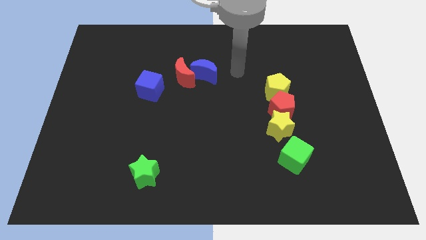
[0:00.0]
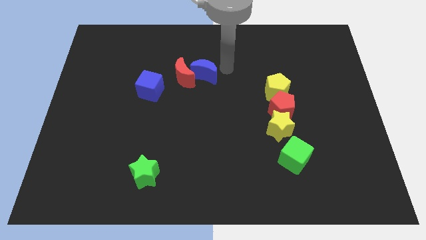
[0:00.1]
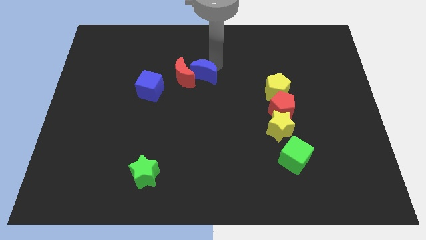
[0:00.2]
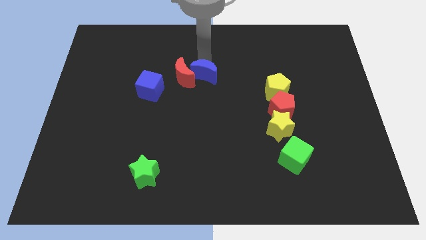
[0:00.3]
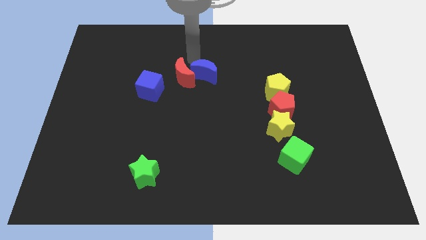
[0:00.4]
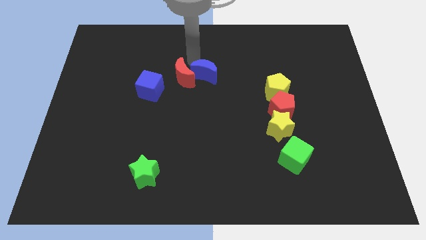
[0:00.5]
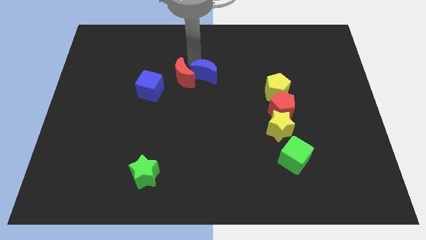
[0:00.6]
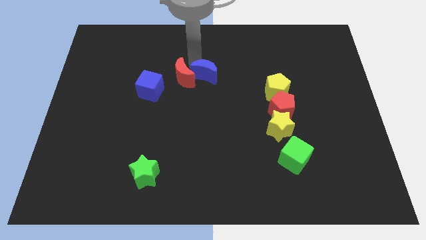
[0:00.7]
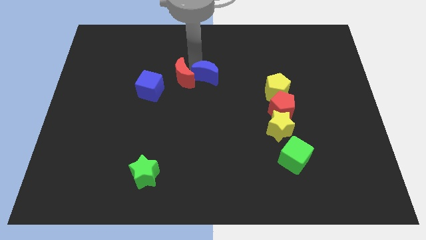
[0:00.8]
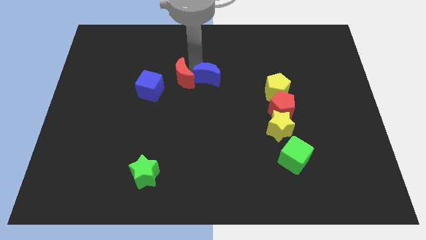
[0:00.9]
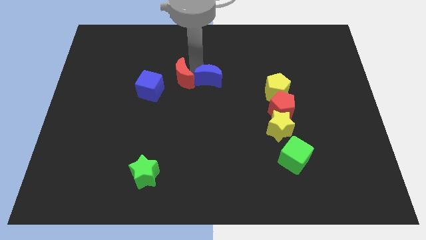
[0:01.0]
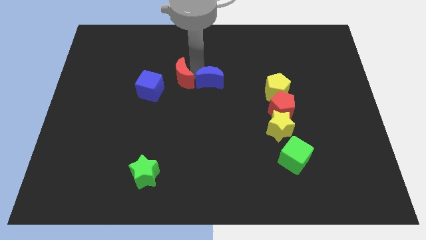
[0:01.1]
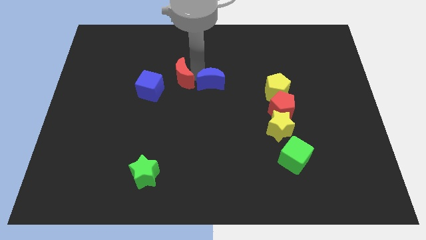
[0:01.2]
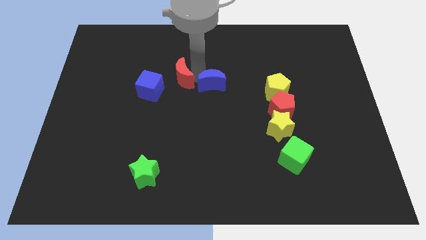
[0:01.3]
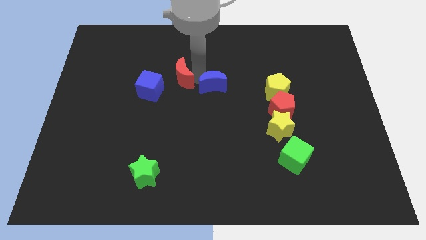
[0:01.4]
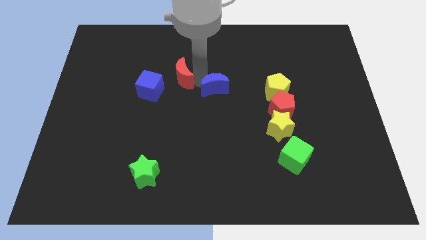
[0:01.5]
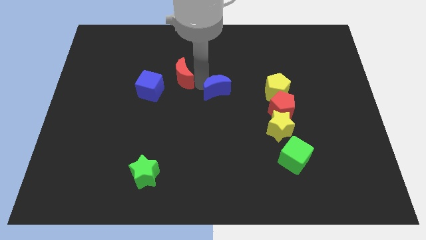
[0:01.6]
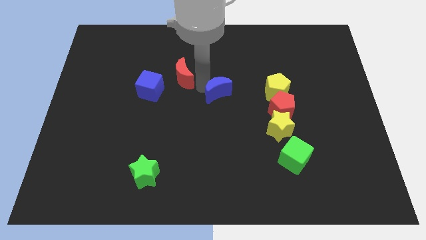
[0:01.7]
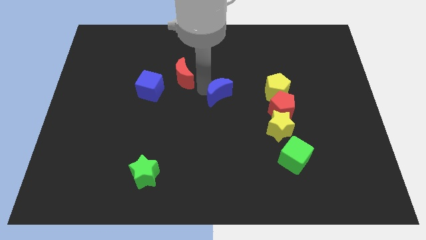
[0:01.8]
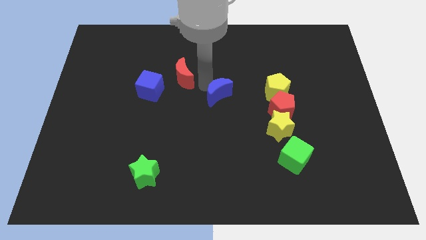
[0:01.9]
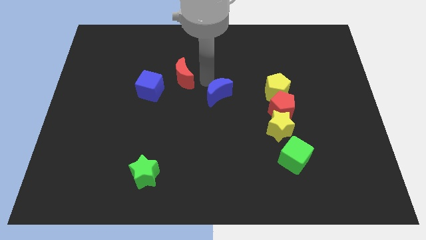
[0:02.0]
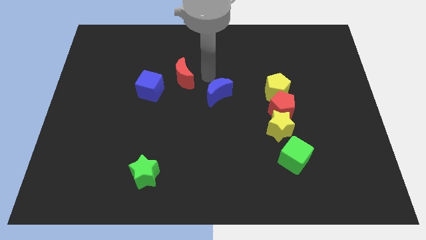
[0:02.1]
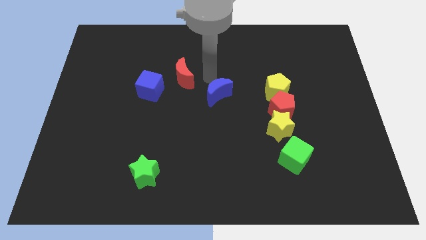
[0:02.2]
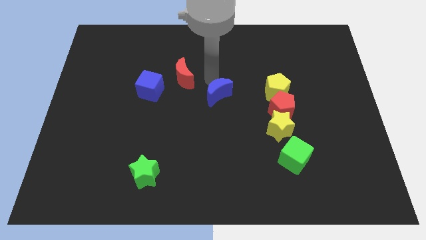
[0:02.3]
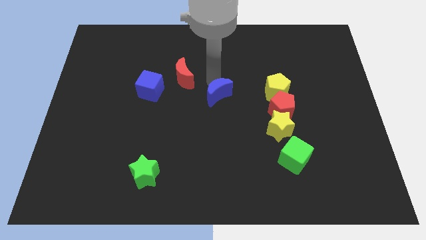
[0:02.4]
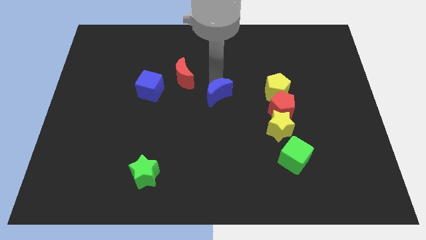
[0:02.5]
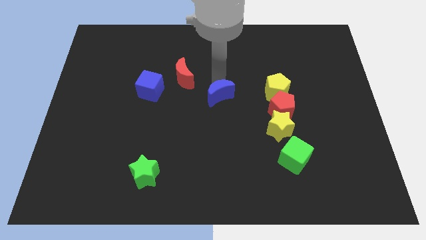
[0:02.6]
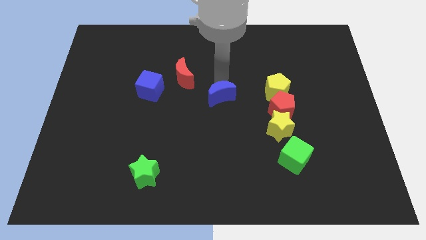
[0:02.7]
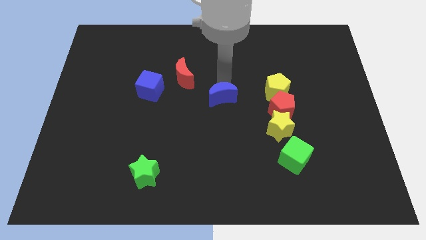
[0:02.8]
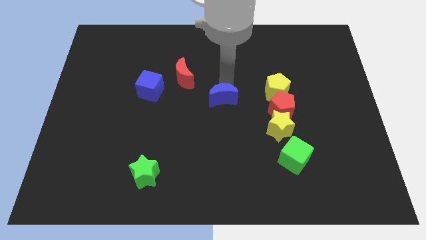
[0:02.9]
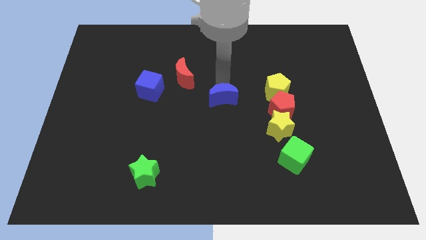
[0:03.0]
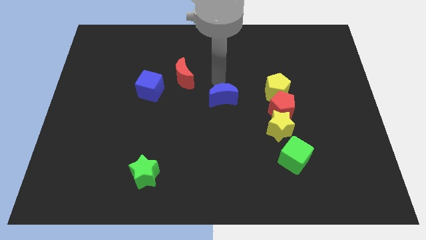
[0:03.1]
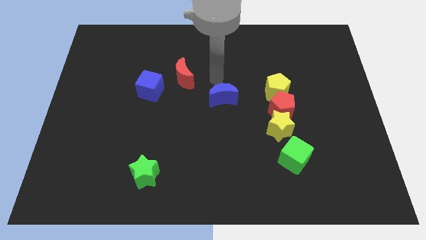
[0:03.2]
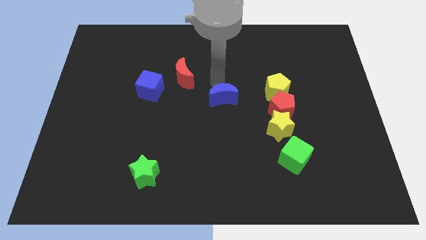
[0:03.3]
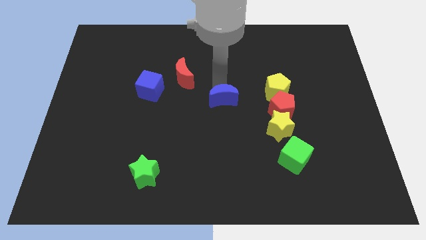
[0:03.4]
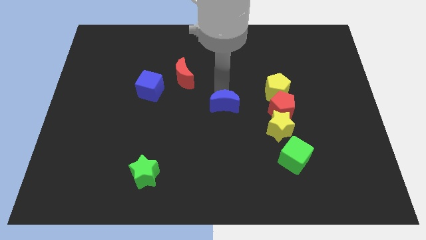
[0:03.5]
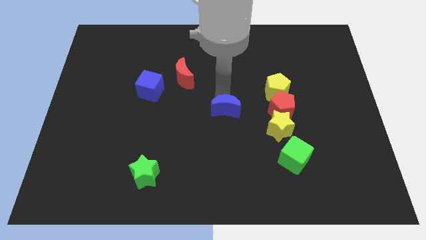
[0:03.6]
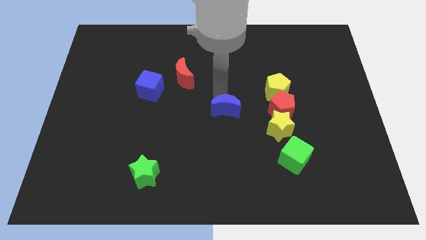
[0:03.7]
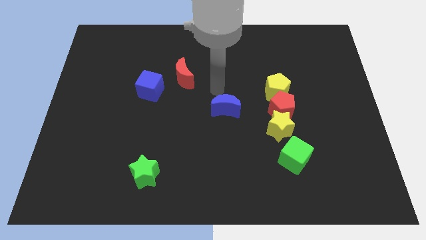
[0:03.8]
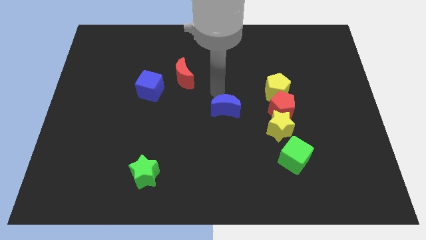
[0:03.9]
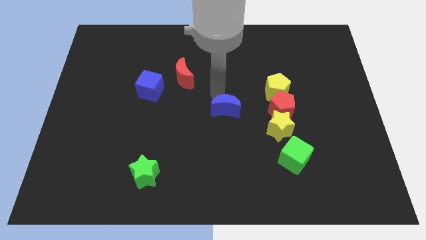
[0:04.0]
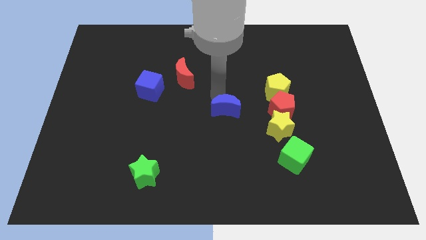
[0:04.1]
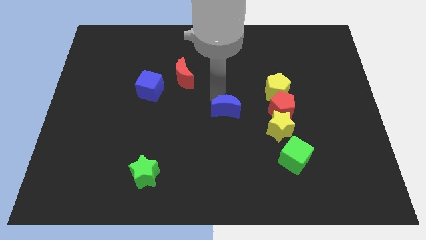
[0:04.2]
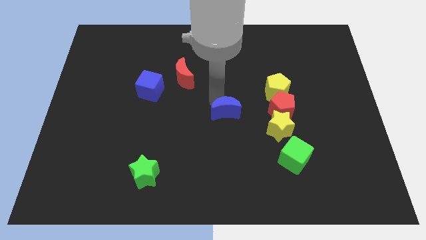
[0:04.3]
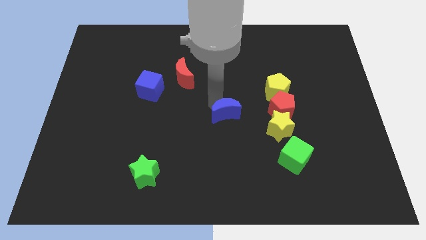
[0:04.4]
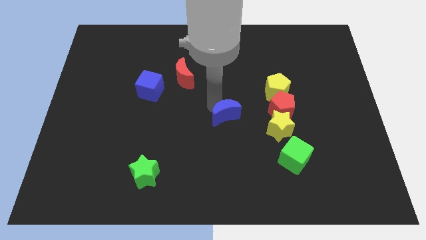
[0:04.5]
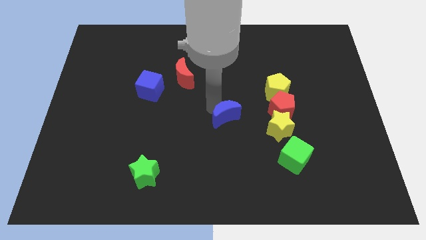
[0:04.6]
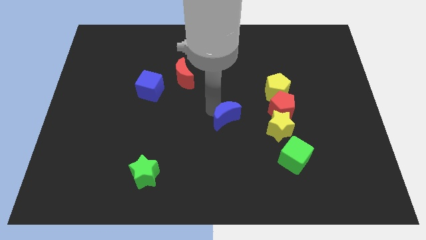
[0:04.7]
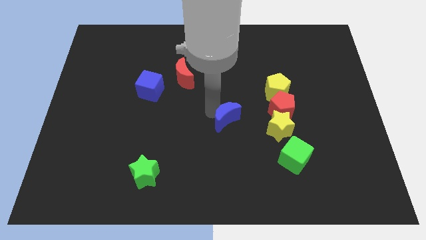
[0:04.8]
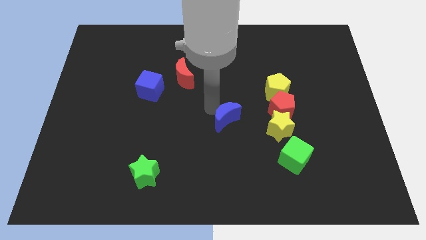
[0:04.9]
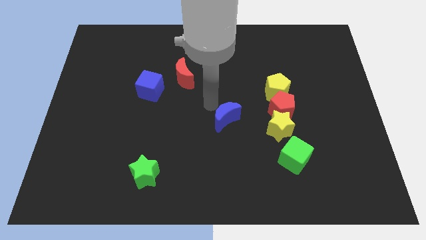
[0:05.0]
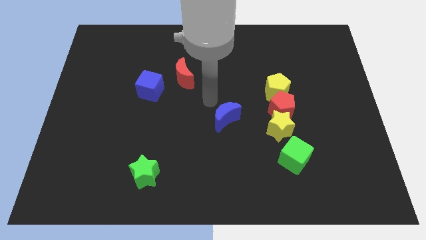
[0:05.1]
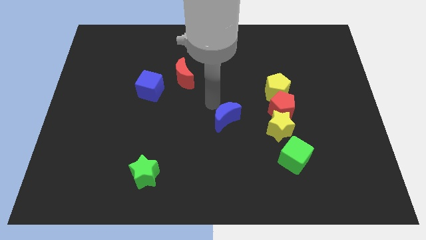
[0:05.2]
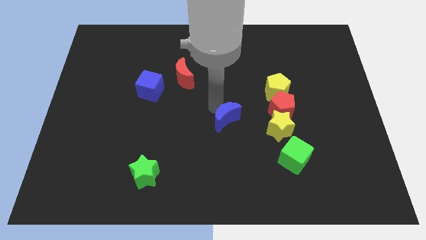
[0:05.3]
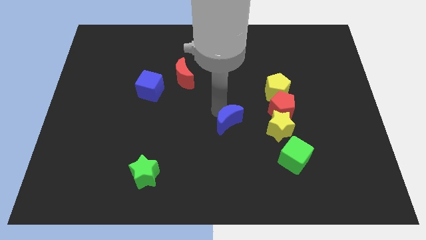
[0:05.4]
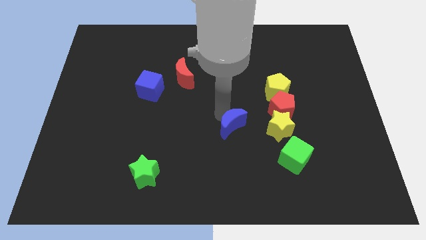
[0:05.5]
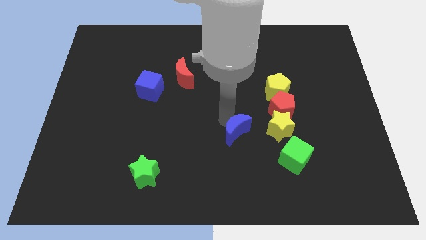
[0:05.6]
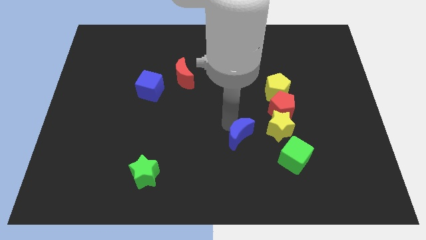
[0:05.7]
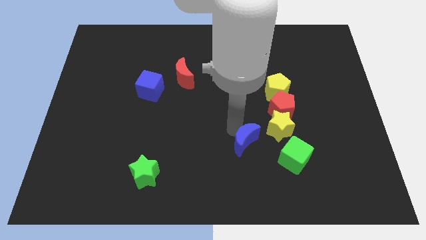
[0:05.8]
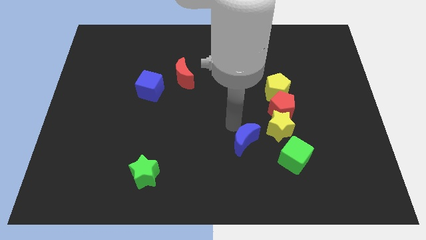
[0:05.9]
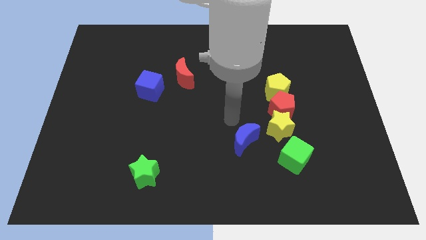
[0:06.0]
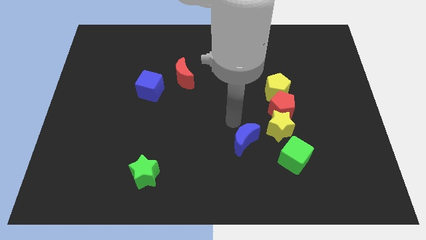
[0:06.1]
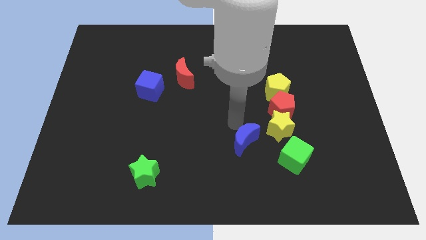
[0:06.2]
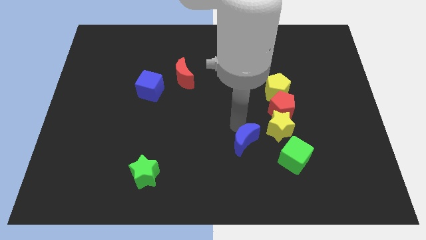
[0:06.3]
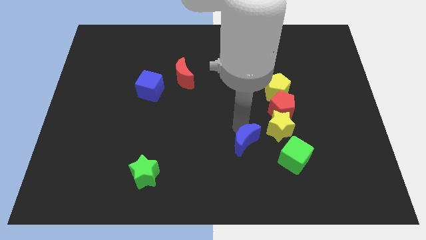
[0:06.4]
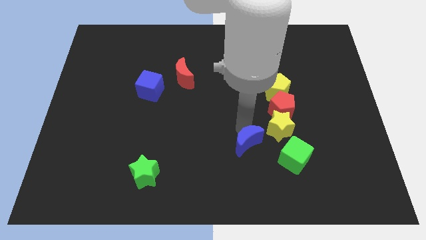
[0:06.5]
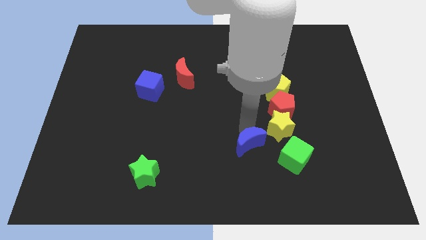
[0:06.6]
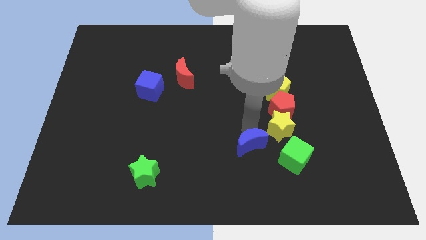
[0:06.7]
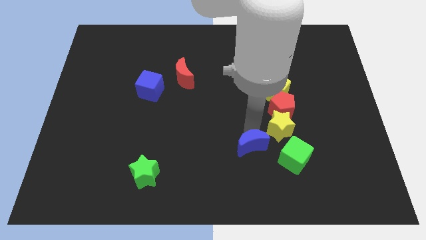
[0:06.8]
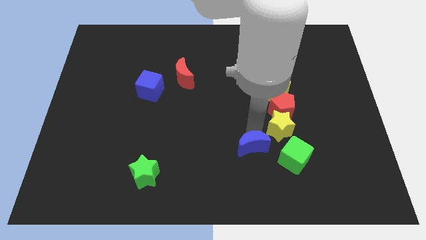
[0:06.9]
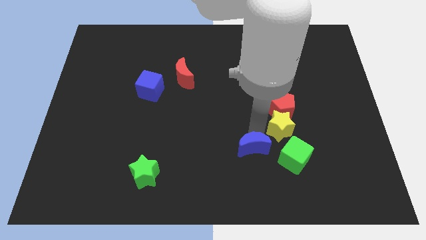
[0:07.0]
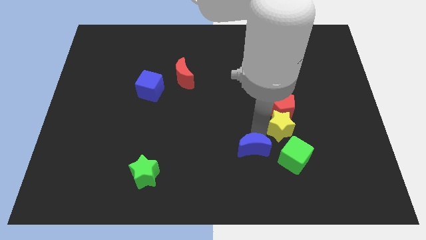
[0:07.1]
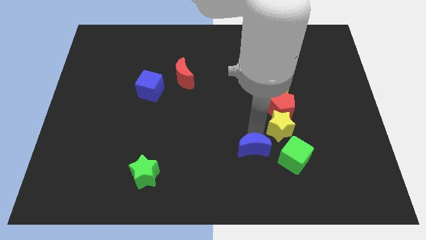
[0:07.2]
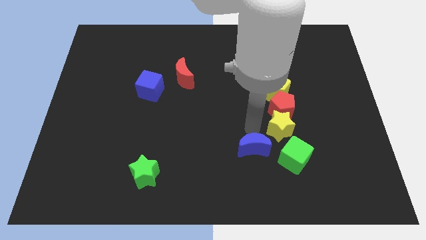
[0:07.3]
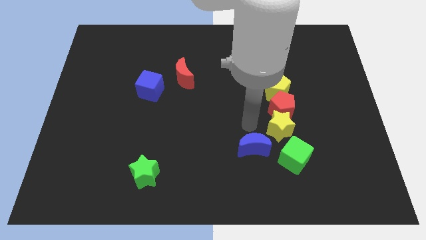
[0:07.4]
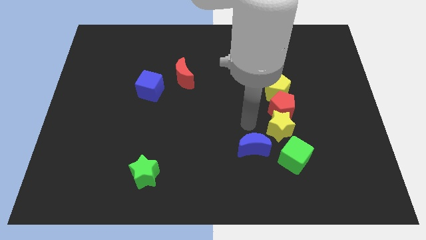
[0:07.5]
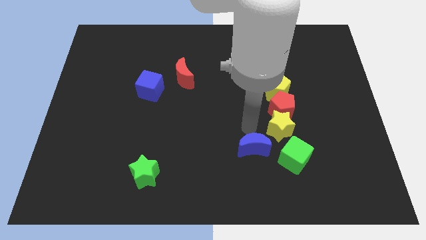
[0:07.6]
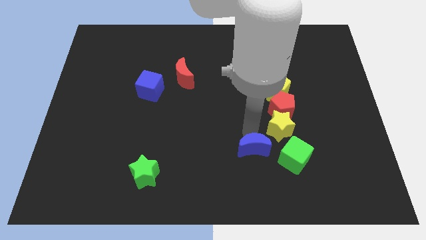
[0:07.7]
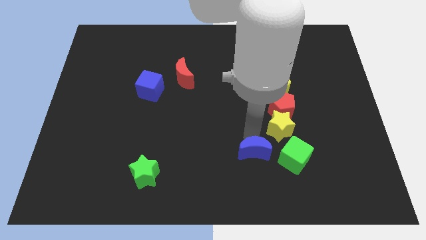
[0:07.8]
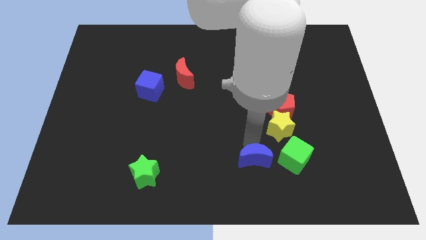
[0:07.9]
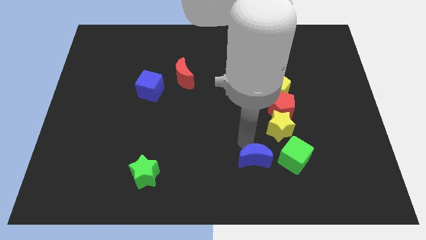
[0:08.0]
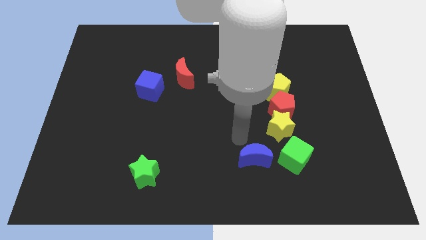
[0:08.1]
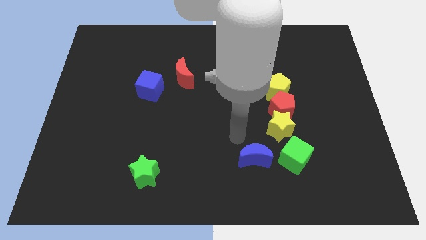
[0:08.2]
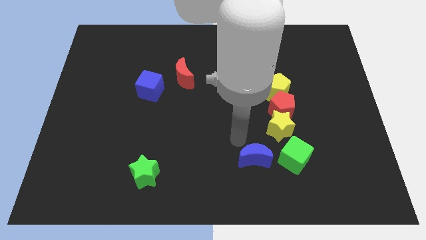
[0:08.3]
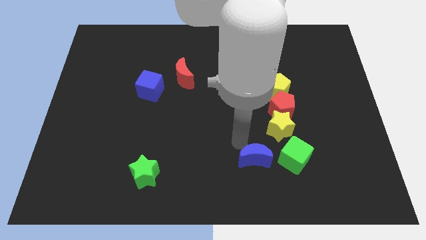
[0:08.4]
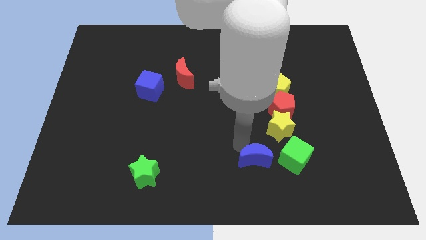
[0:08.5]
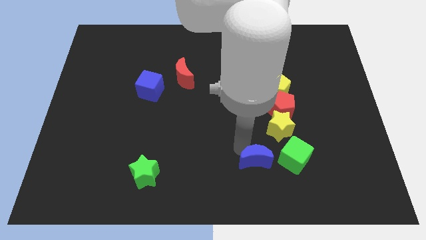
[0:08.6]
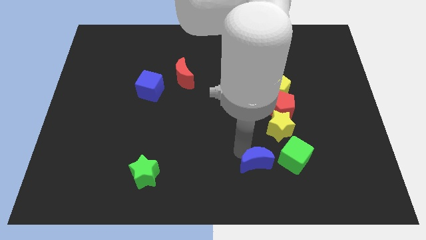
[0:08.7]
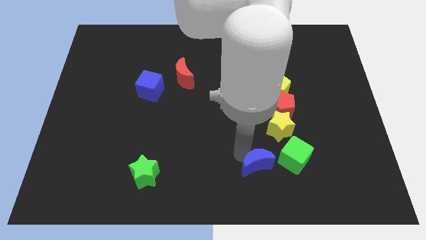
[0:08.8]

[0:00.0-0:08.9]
put the blue moon diagonally down and to the left of the green cube
